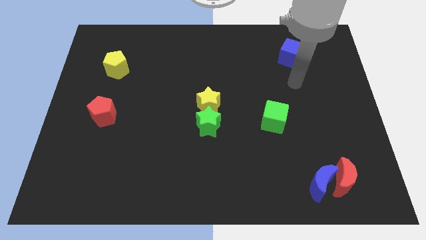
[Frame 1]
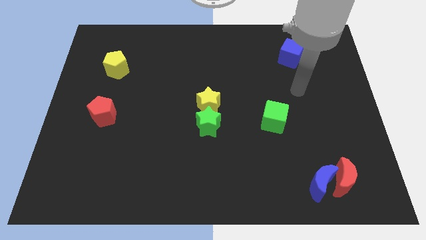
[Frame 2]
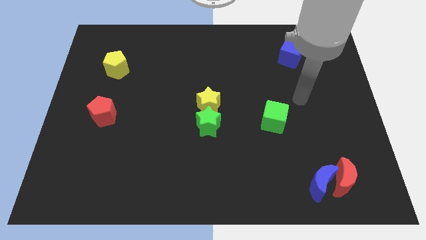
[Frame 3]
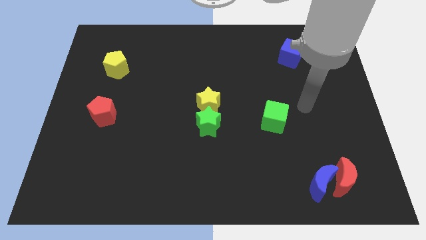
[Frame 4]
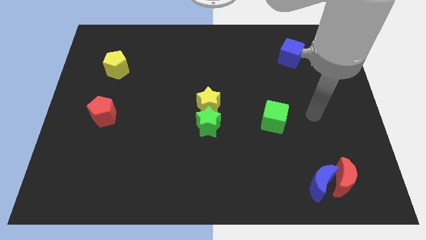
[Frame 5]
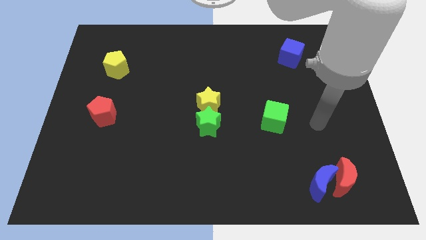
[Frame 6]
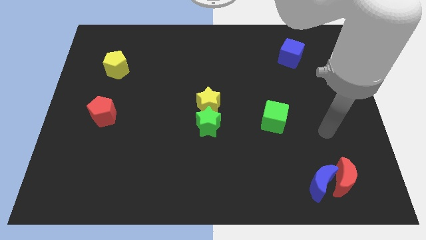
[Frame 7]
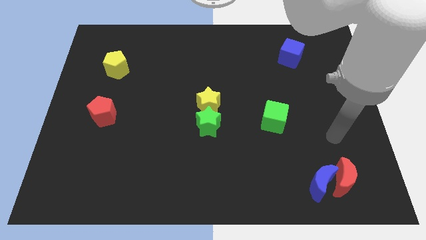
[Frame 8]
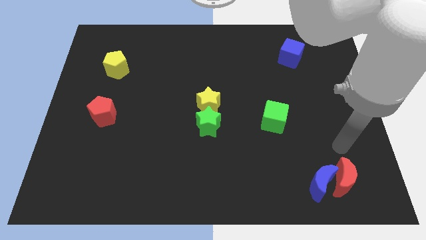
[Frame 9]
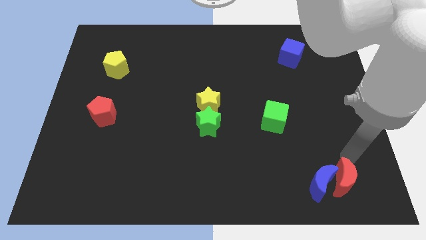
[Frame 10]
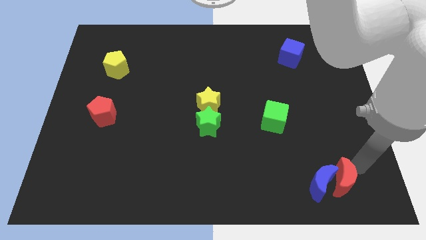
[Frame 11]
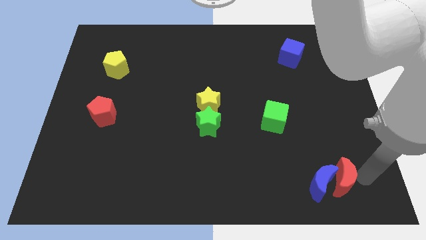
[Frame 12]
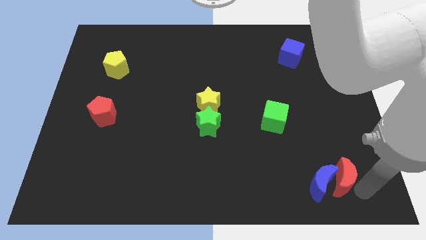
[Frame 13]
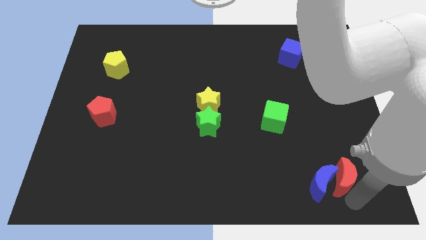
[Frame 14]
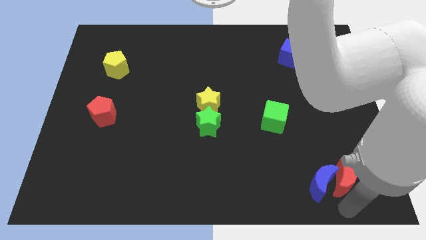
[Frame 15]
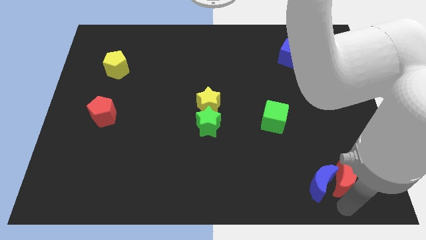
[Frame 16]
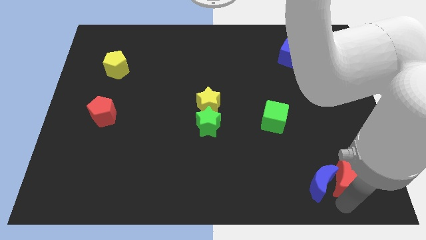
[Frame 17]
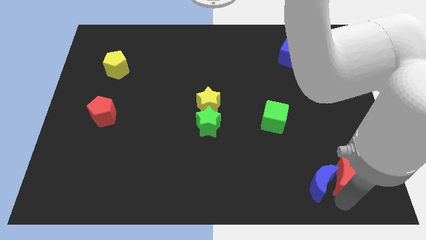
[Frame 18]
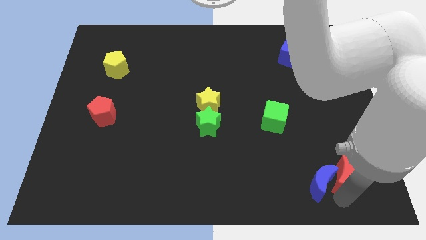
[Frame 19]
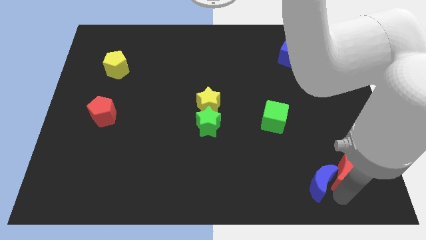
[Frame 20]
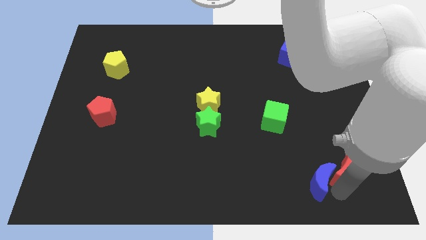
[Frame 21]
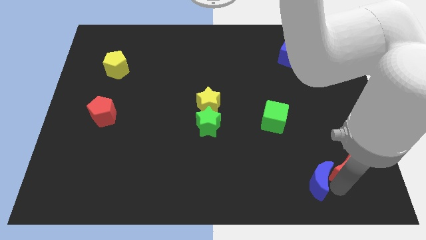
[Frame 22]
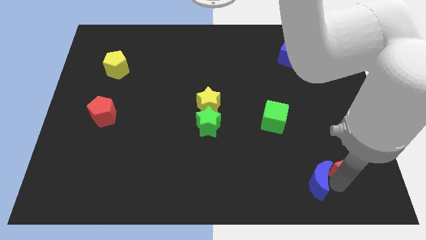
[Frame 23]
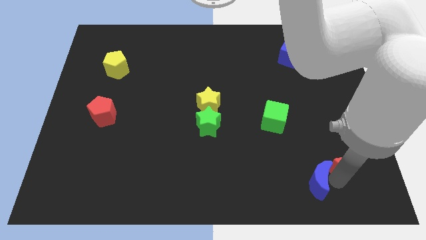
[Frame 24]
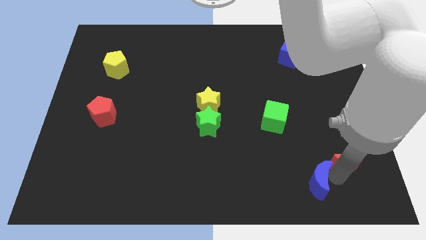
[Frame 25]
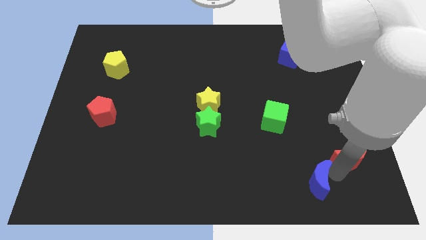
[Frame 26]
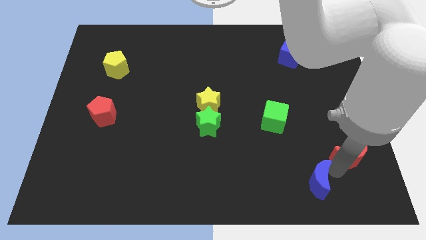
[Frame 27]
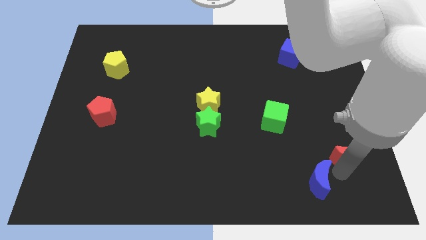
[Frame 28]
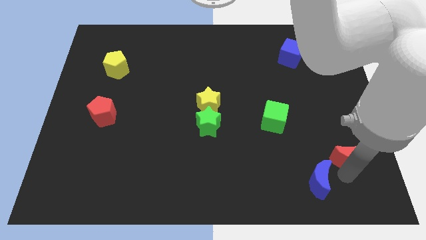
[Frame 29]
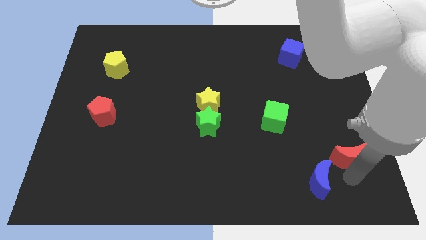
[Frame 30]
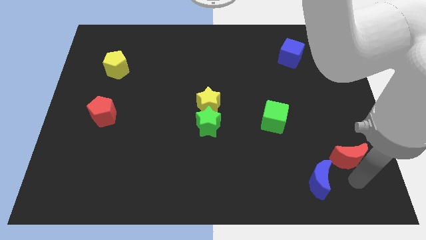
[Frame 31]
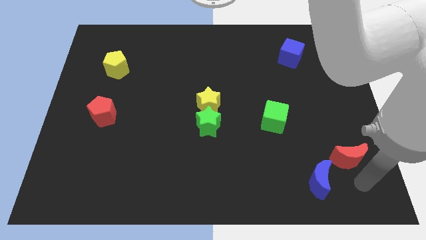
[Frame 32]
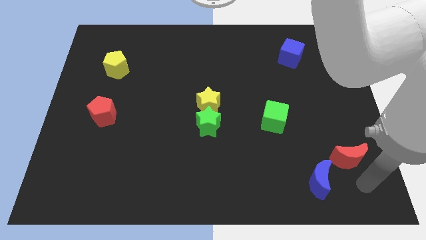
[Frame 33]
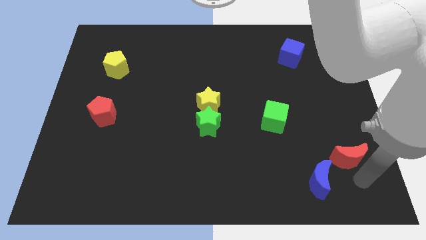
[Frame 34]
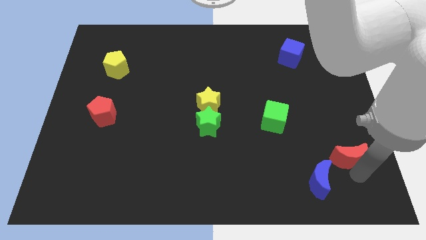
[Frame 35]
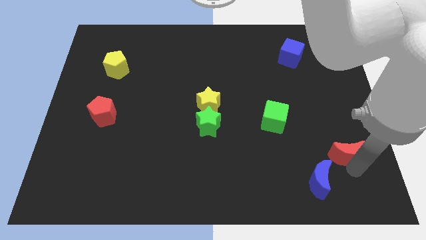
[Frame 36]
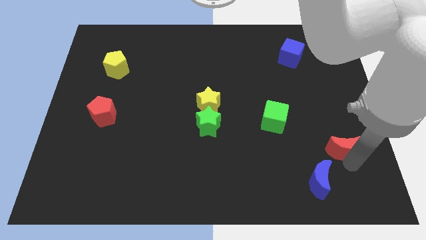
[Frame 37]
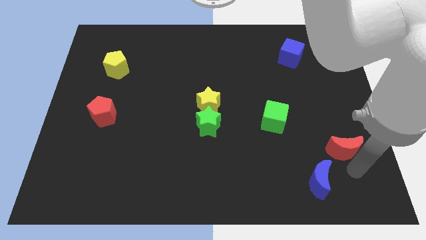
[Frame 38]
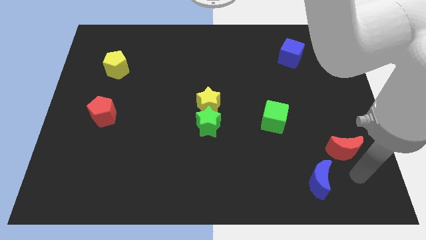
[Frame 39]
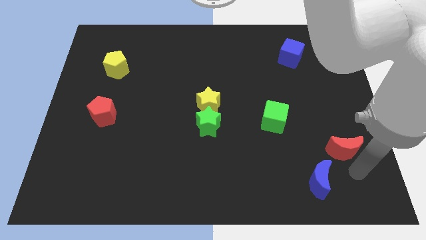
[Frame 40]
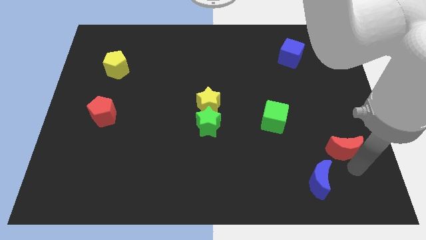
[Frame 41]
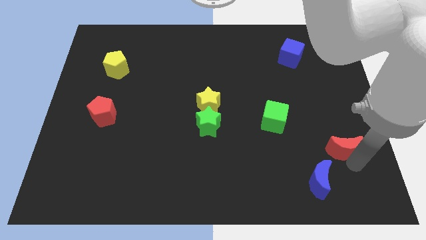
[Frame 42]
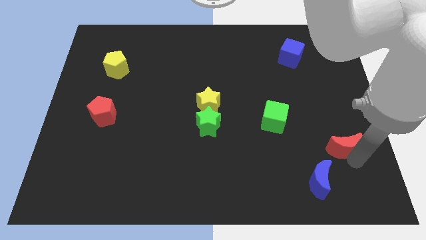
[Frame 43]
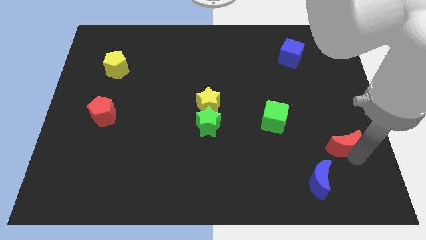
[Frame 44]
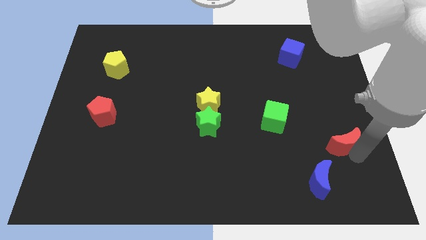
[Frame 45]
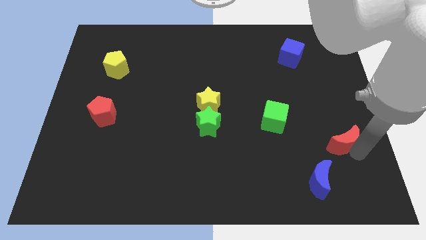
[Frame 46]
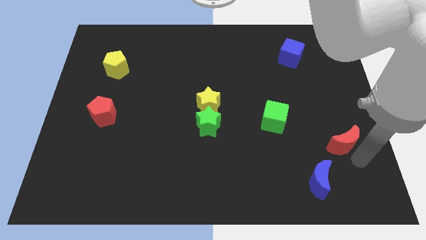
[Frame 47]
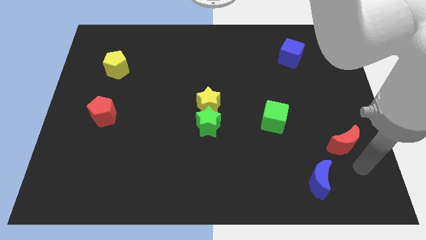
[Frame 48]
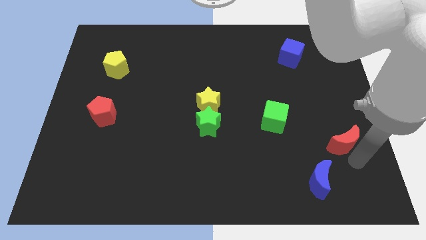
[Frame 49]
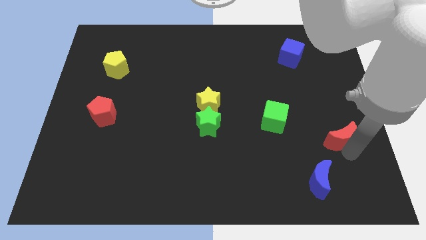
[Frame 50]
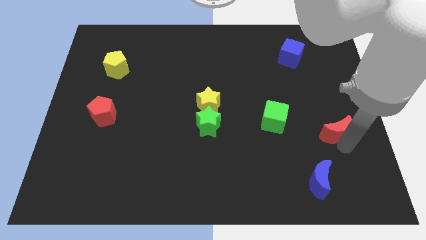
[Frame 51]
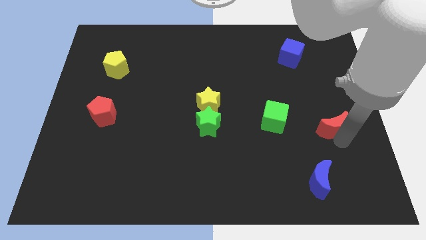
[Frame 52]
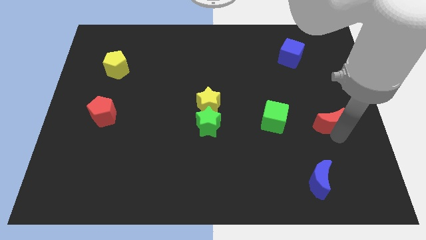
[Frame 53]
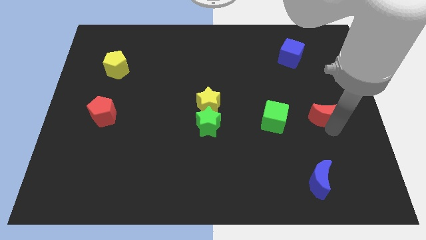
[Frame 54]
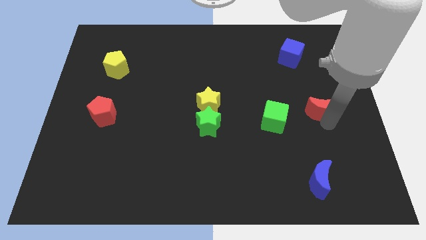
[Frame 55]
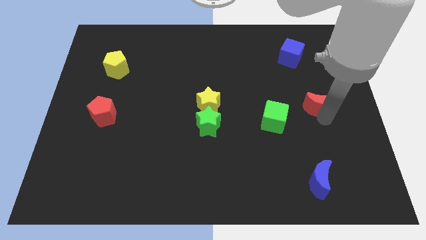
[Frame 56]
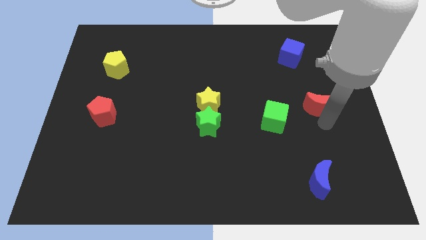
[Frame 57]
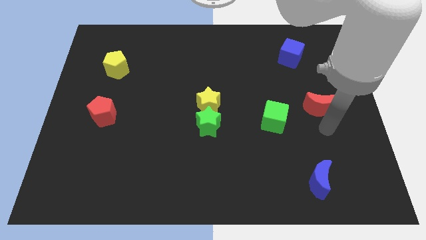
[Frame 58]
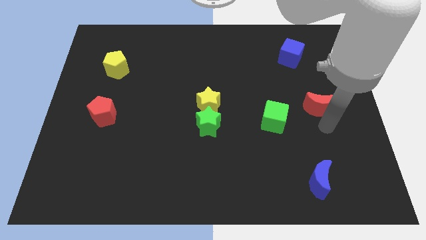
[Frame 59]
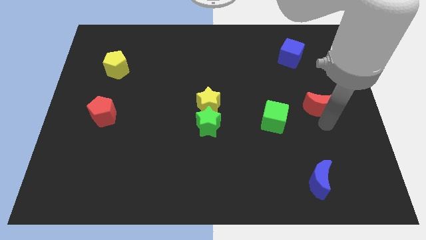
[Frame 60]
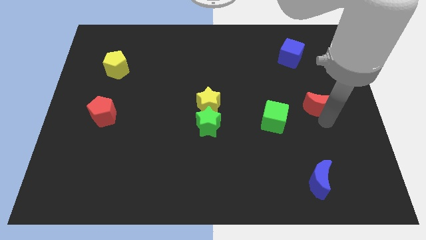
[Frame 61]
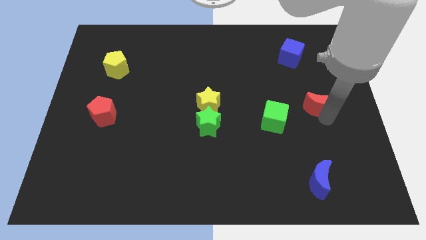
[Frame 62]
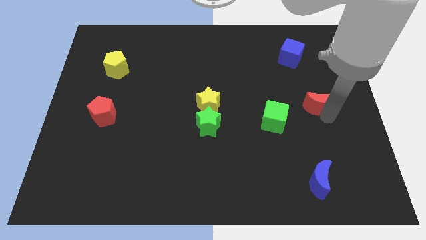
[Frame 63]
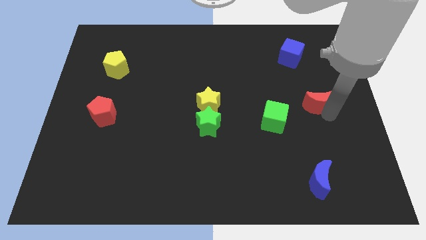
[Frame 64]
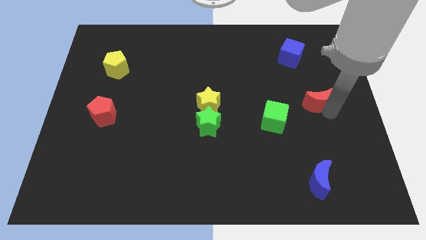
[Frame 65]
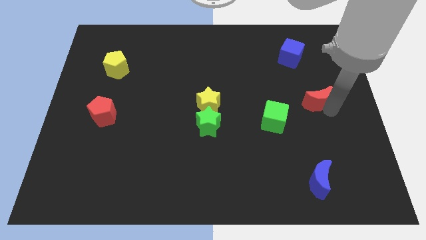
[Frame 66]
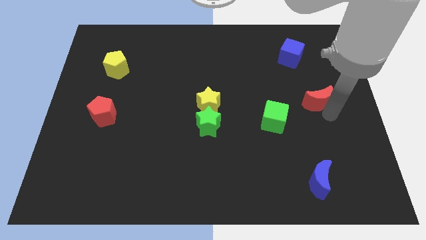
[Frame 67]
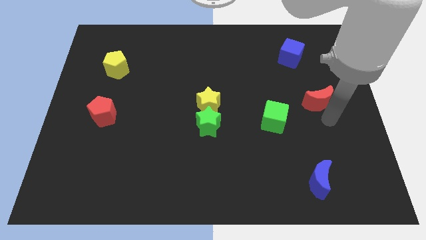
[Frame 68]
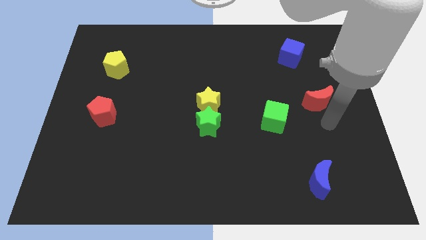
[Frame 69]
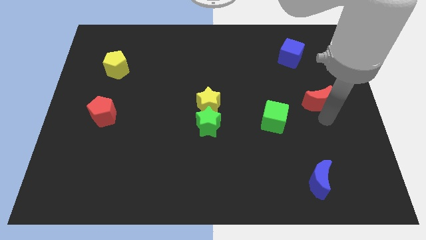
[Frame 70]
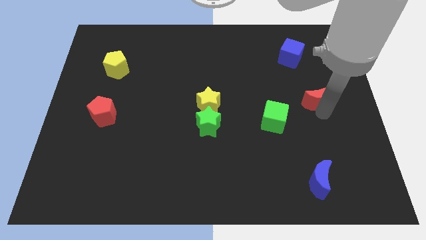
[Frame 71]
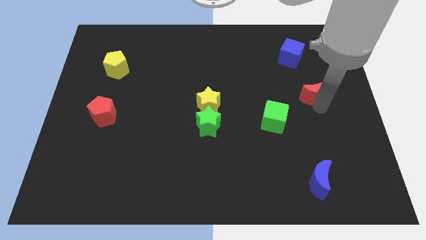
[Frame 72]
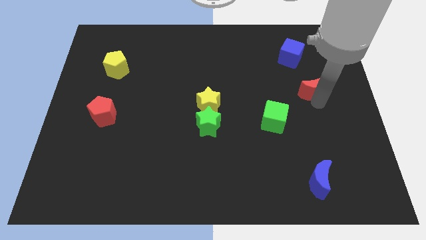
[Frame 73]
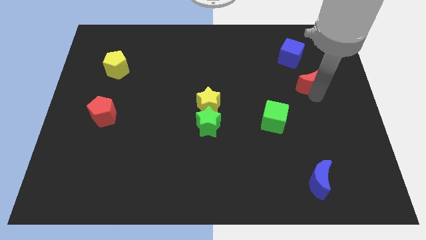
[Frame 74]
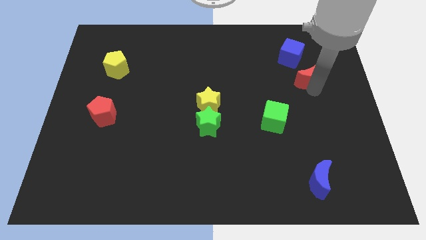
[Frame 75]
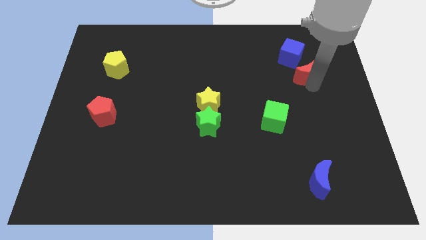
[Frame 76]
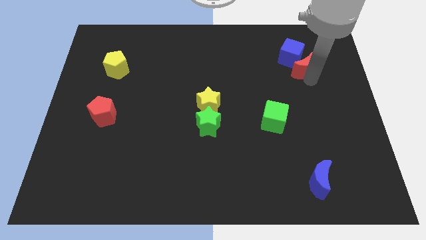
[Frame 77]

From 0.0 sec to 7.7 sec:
move the red moon next to the blue cube
